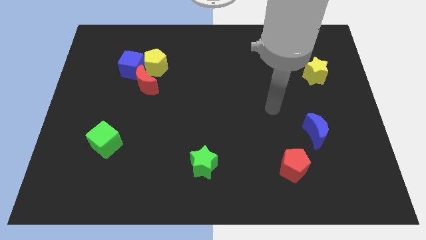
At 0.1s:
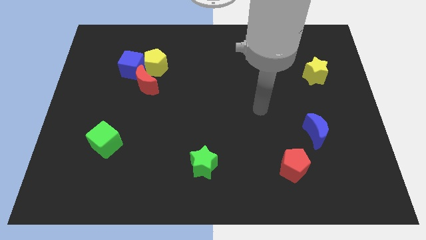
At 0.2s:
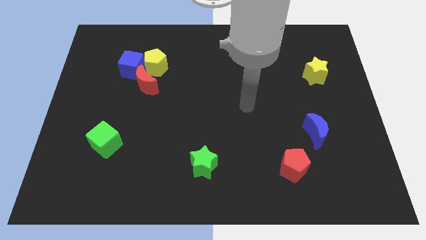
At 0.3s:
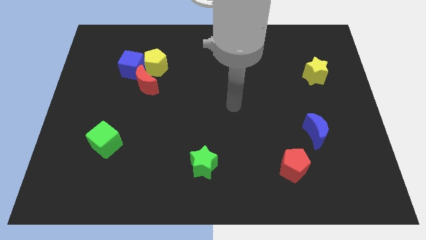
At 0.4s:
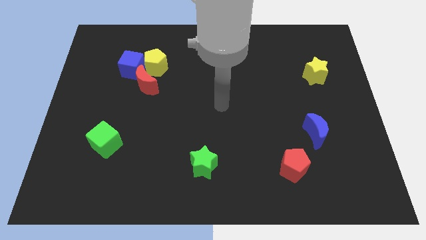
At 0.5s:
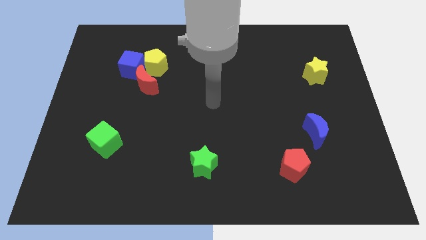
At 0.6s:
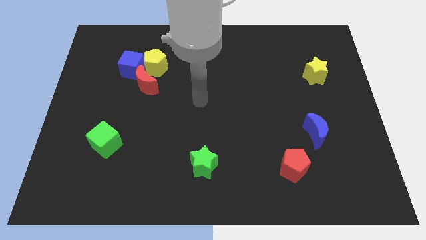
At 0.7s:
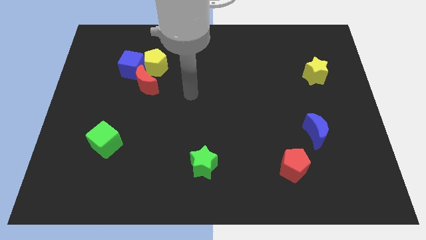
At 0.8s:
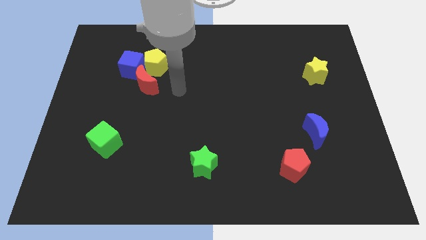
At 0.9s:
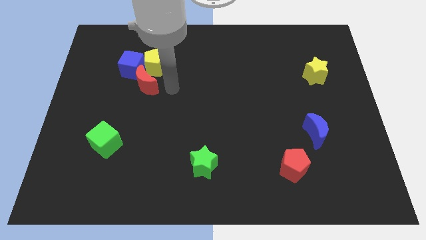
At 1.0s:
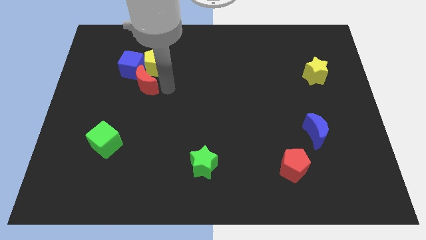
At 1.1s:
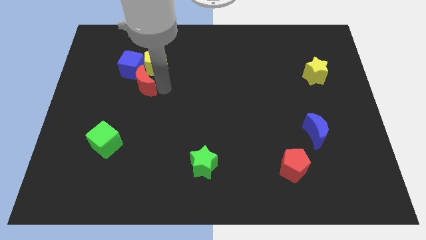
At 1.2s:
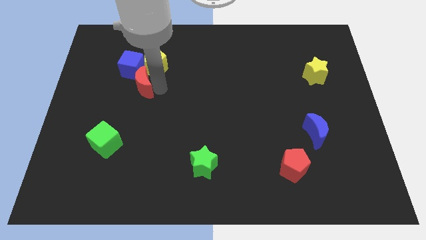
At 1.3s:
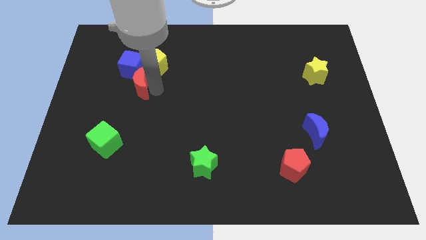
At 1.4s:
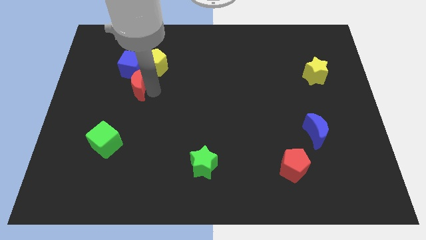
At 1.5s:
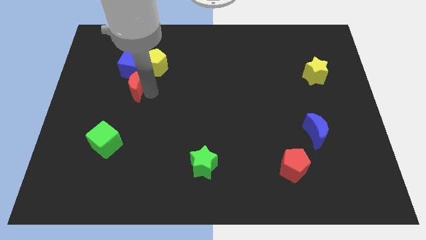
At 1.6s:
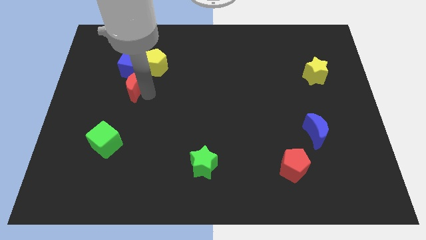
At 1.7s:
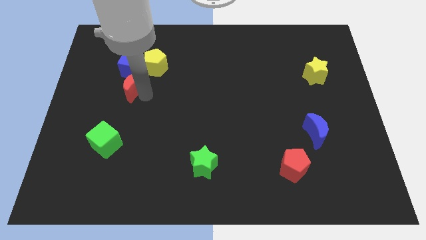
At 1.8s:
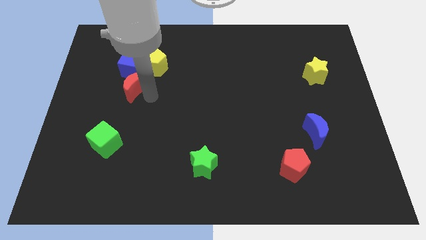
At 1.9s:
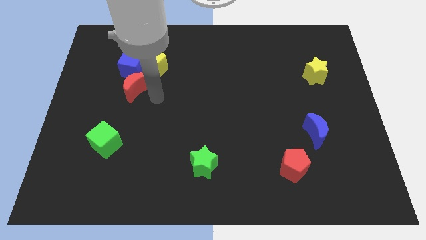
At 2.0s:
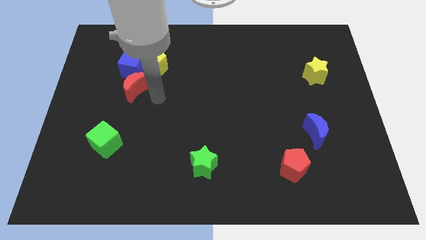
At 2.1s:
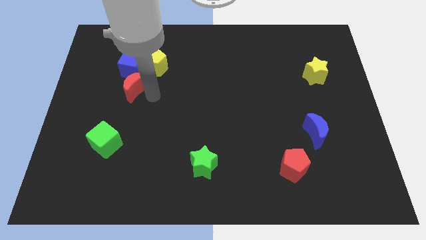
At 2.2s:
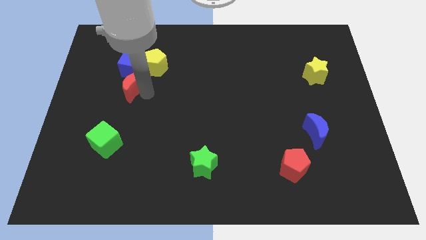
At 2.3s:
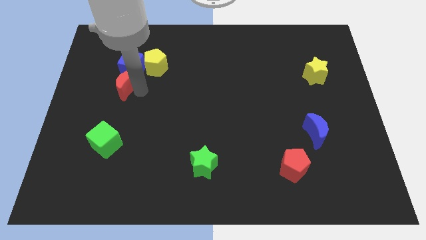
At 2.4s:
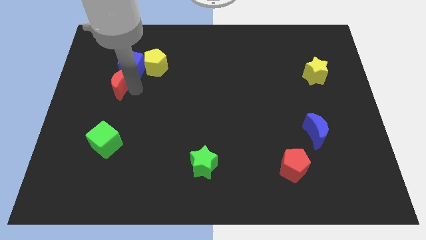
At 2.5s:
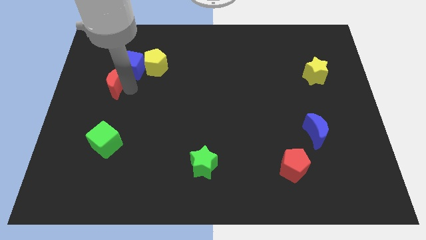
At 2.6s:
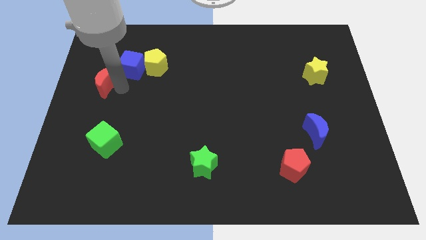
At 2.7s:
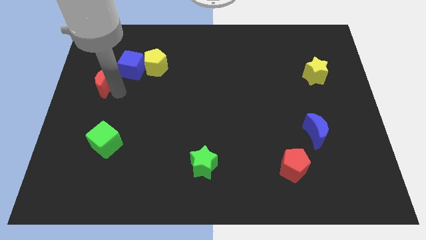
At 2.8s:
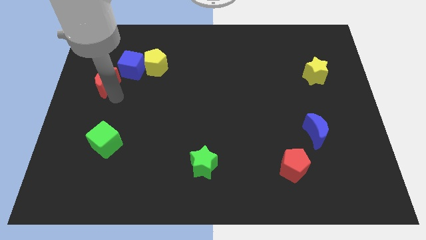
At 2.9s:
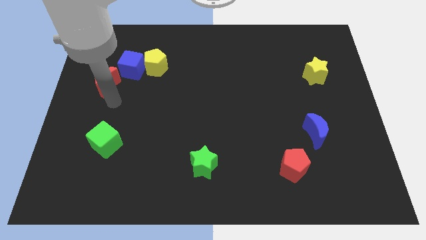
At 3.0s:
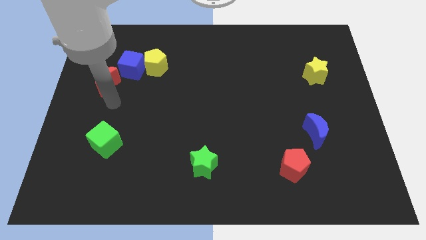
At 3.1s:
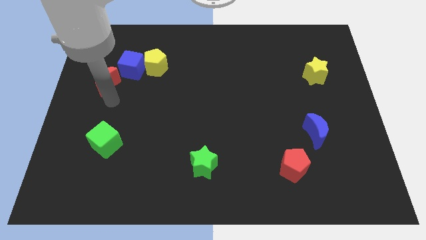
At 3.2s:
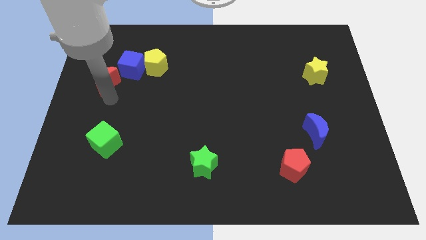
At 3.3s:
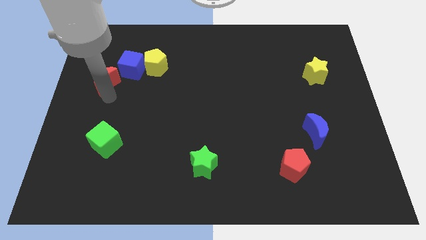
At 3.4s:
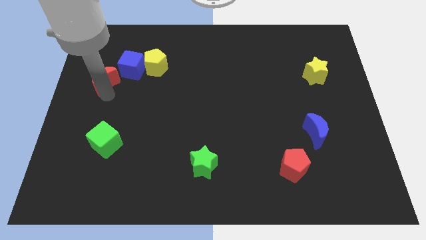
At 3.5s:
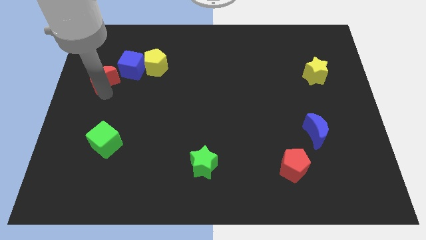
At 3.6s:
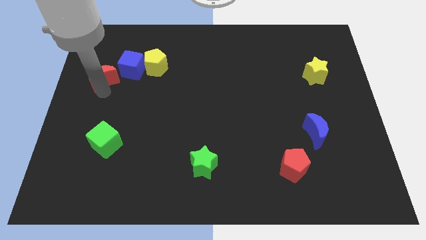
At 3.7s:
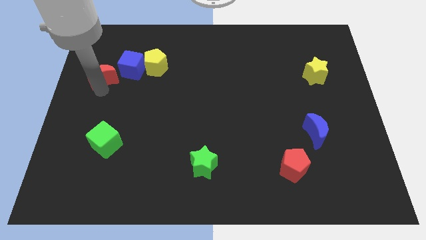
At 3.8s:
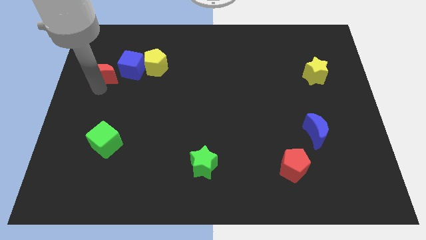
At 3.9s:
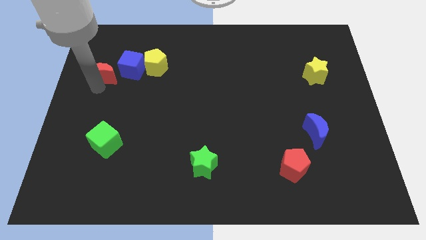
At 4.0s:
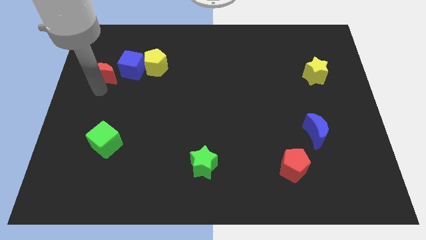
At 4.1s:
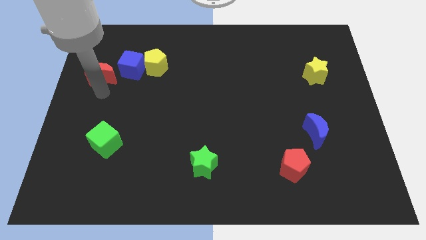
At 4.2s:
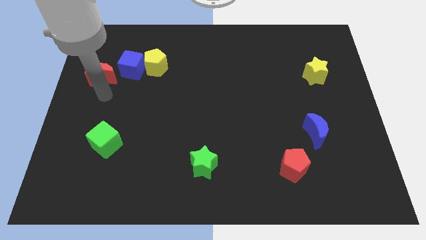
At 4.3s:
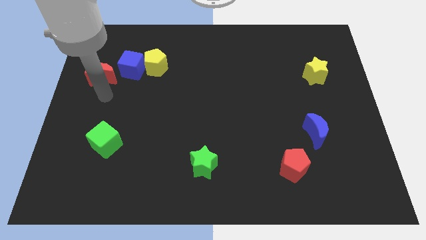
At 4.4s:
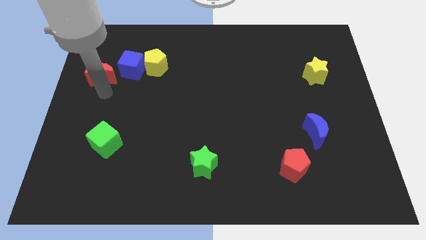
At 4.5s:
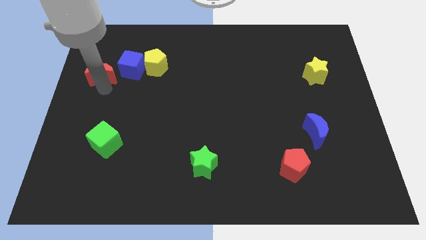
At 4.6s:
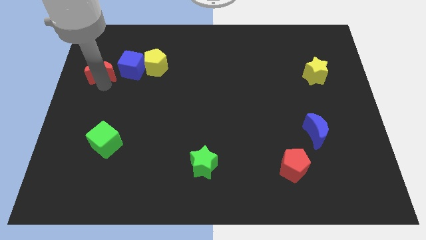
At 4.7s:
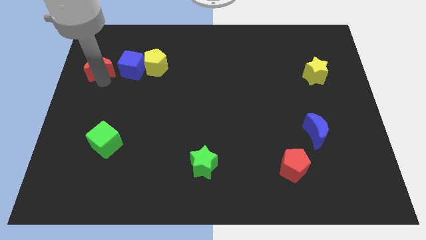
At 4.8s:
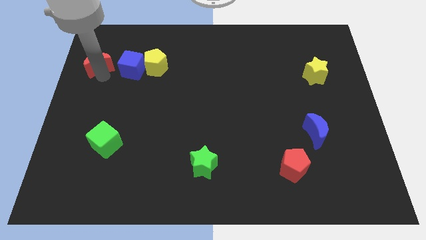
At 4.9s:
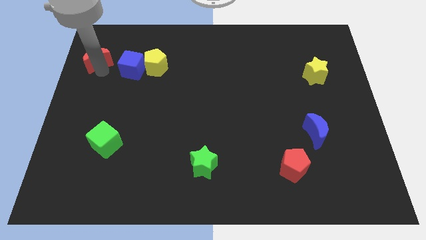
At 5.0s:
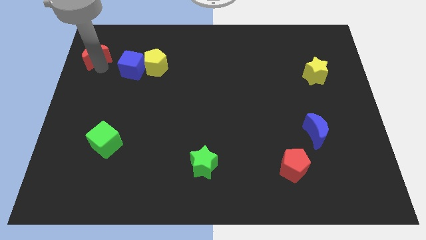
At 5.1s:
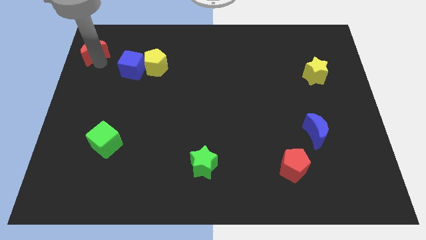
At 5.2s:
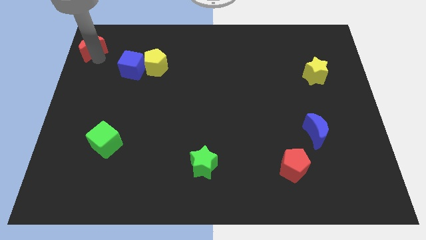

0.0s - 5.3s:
slide the red moon to the top left of the board

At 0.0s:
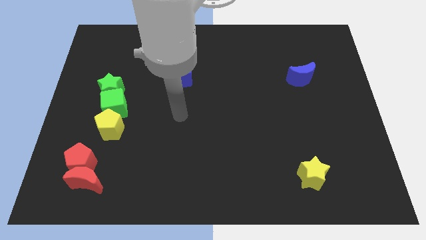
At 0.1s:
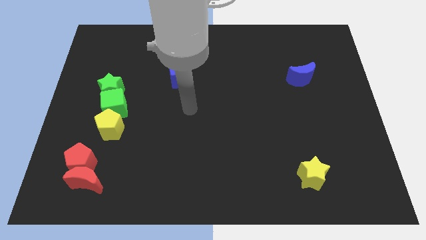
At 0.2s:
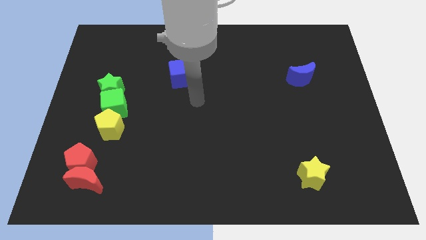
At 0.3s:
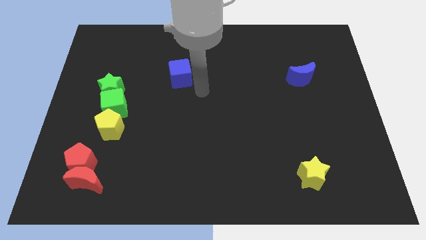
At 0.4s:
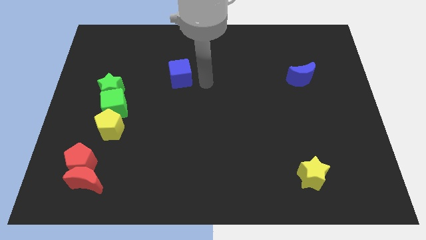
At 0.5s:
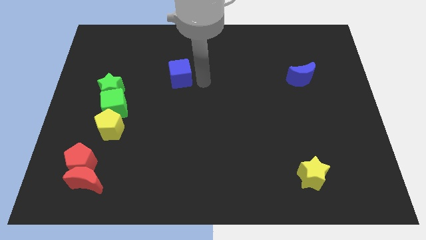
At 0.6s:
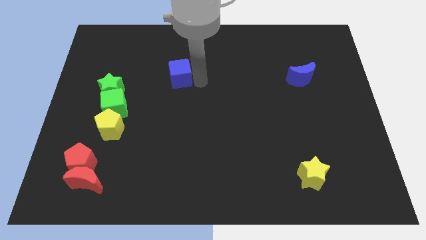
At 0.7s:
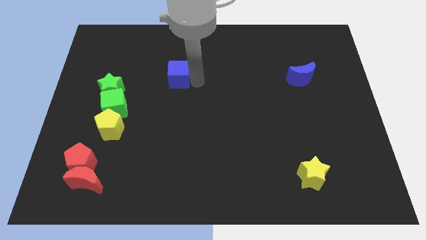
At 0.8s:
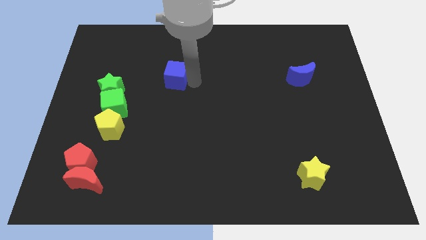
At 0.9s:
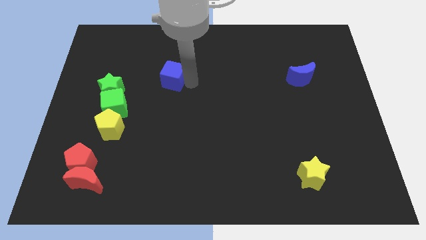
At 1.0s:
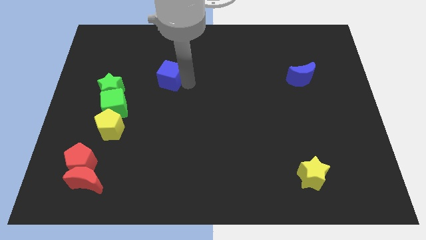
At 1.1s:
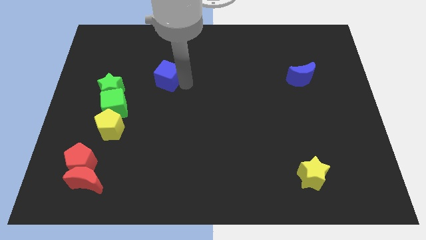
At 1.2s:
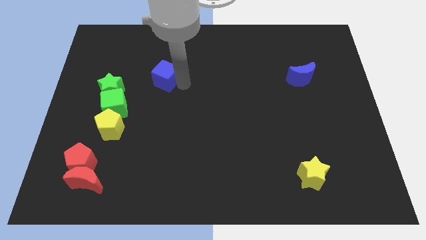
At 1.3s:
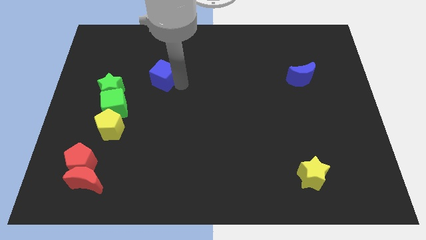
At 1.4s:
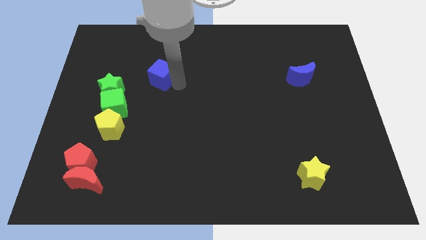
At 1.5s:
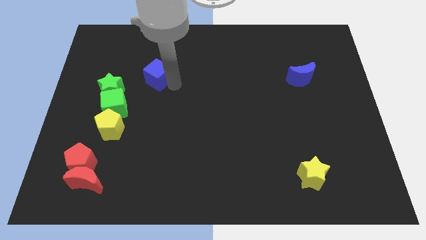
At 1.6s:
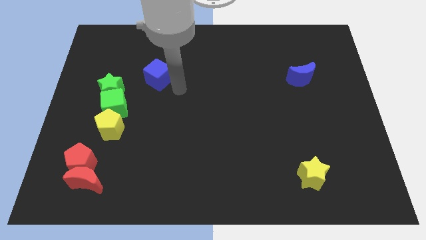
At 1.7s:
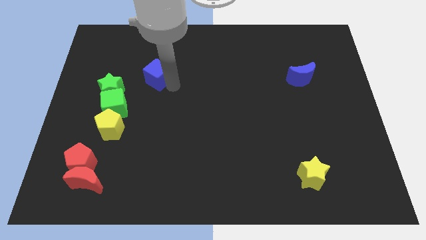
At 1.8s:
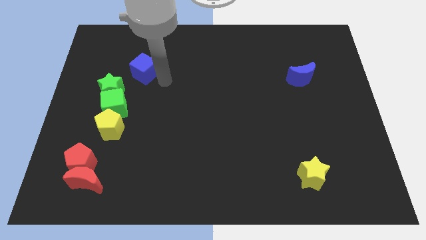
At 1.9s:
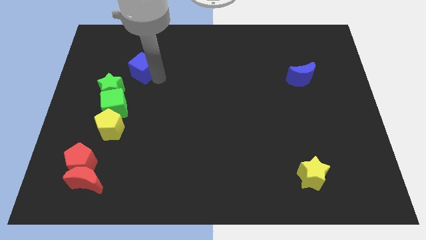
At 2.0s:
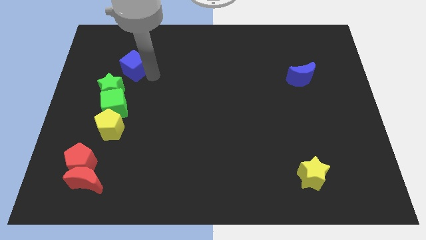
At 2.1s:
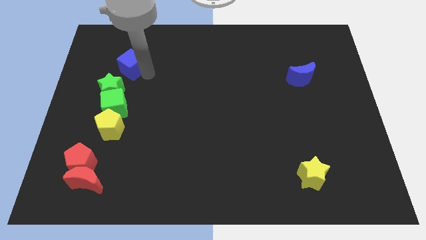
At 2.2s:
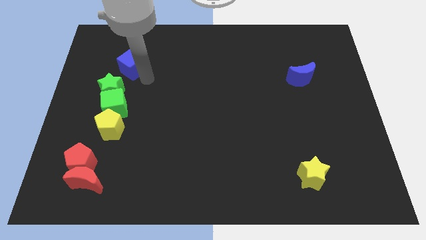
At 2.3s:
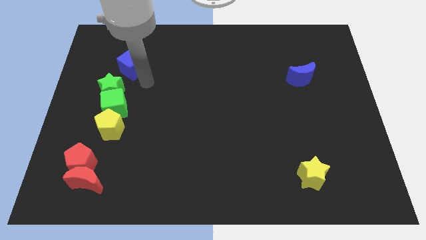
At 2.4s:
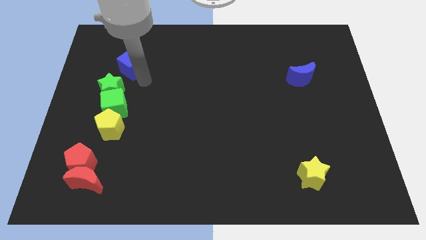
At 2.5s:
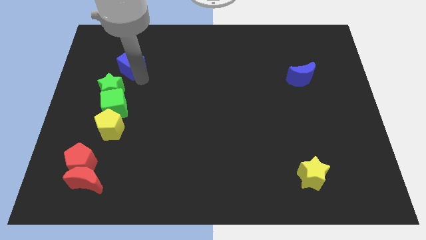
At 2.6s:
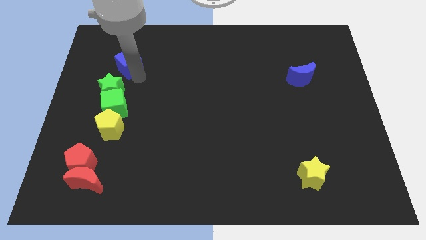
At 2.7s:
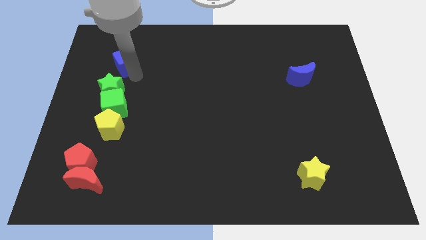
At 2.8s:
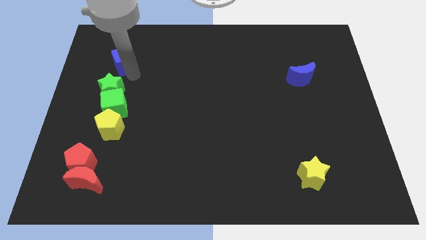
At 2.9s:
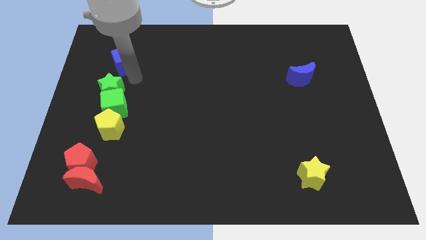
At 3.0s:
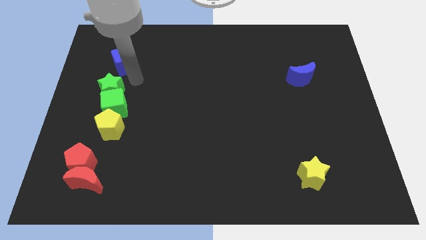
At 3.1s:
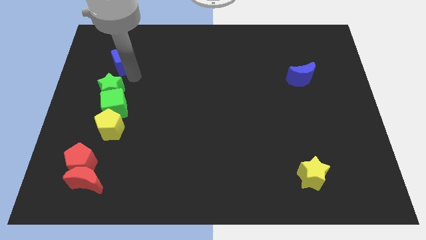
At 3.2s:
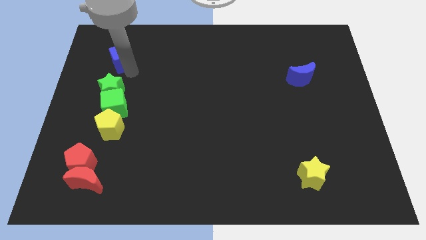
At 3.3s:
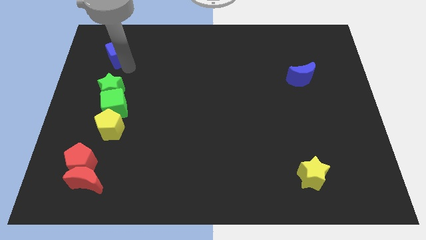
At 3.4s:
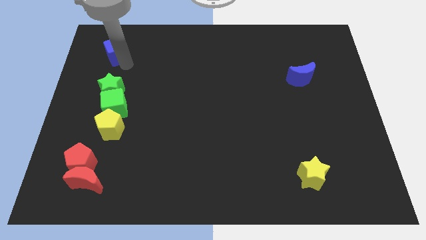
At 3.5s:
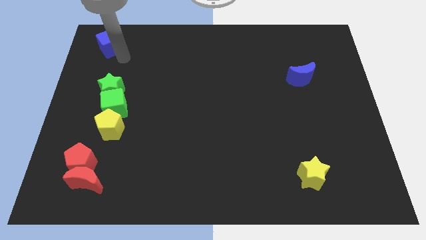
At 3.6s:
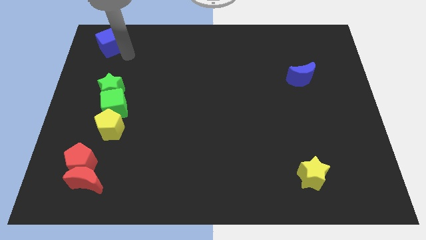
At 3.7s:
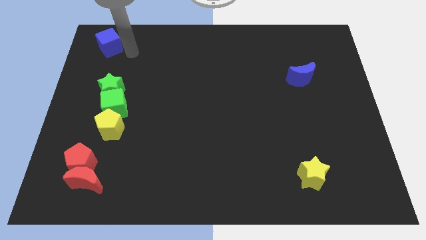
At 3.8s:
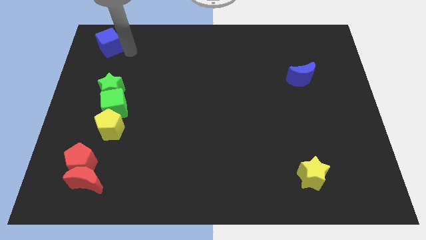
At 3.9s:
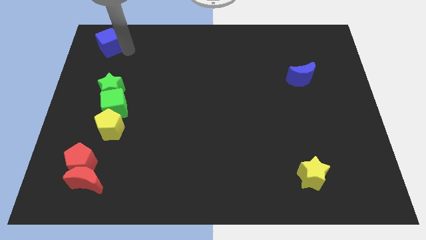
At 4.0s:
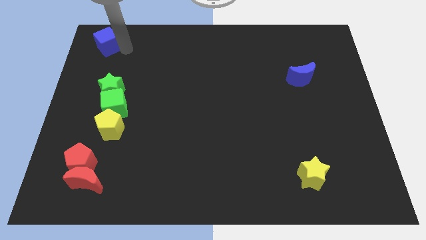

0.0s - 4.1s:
slide the blue cube to the top left
